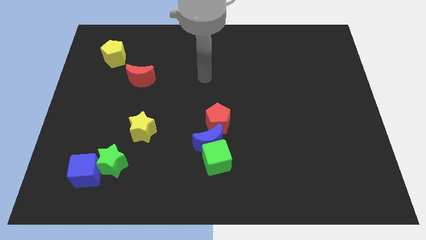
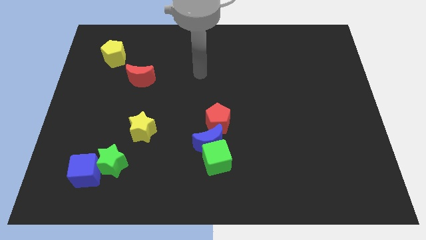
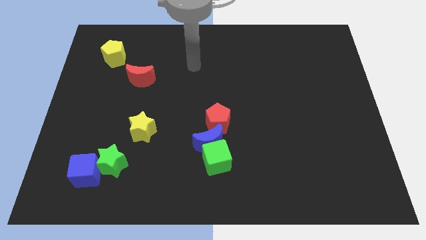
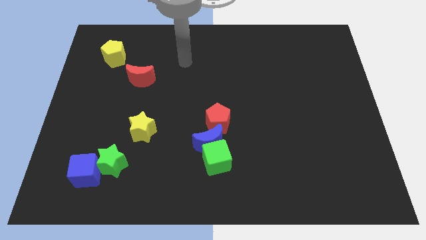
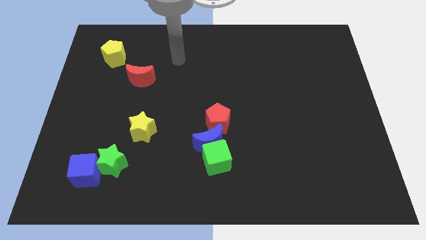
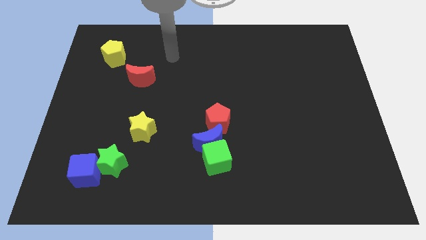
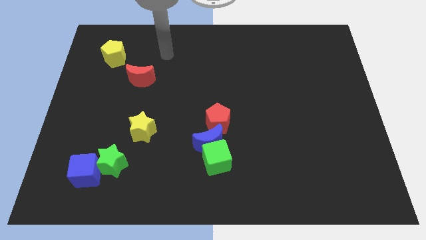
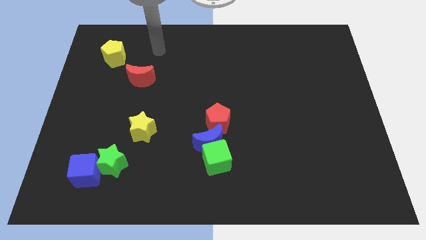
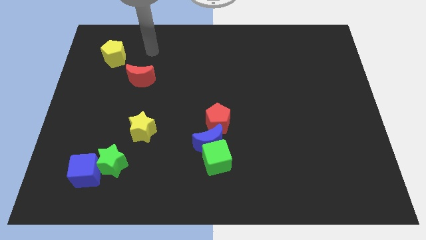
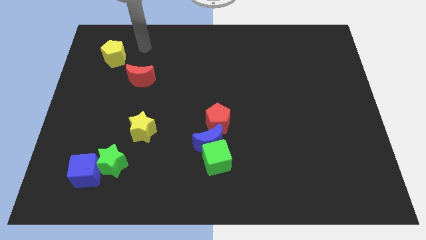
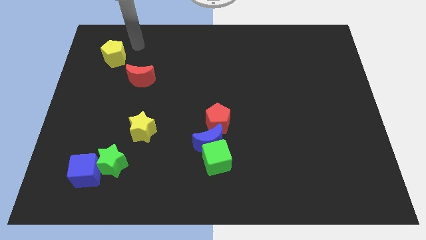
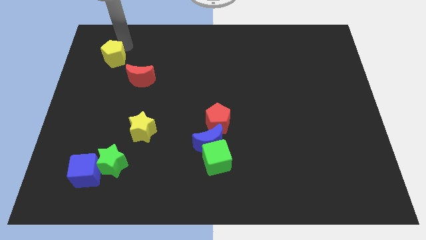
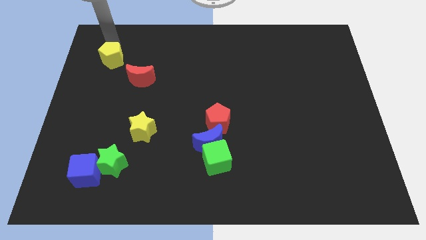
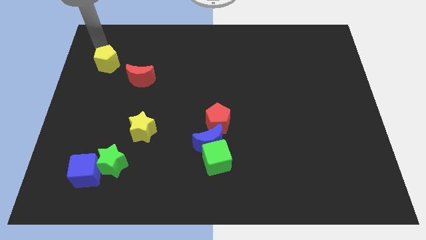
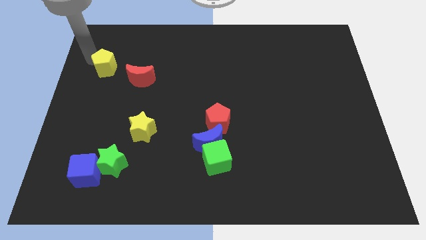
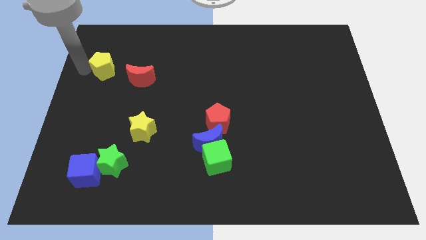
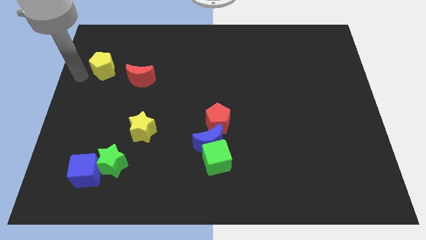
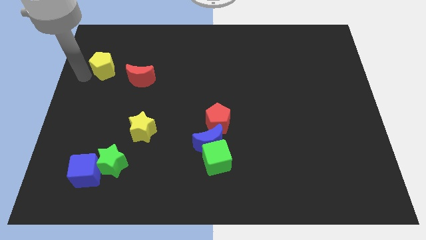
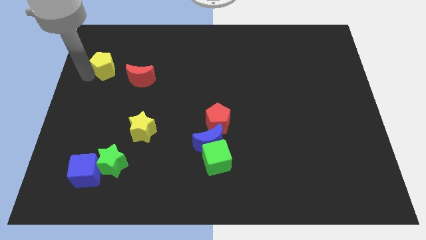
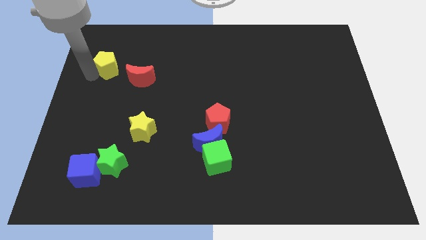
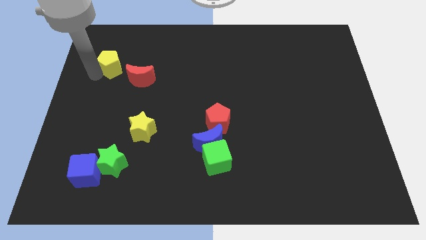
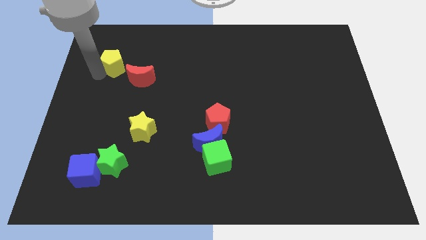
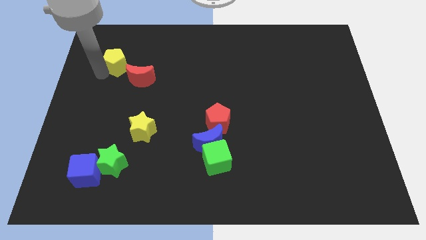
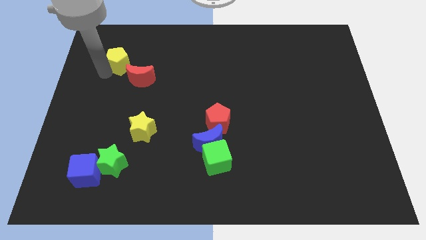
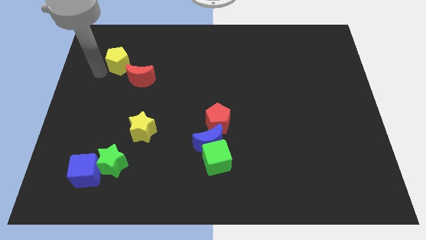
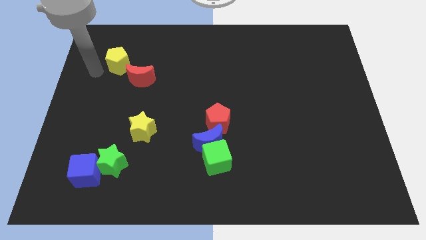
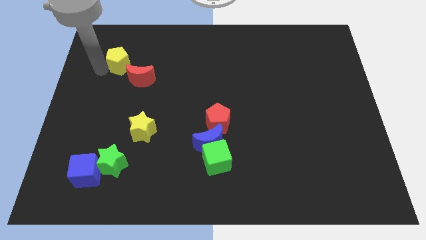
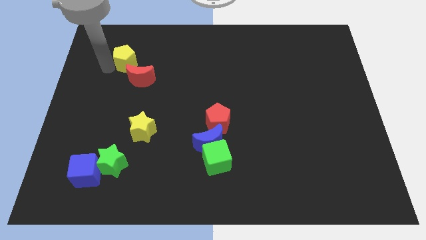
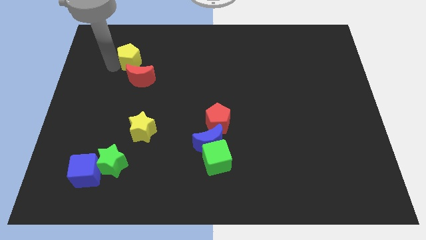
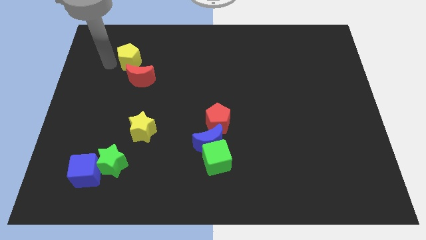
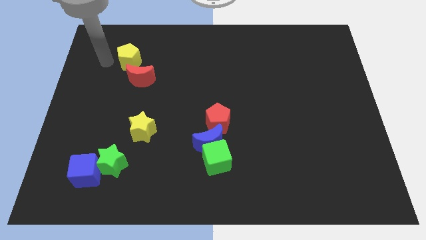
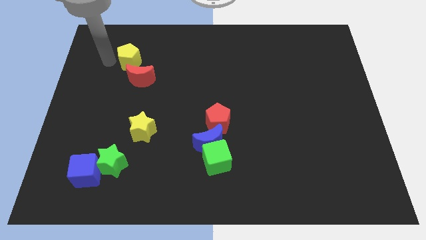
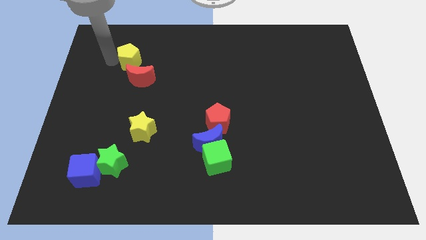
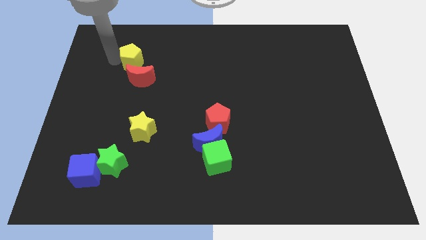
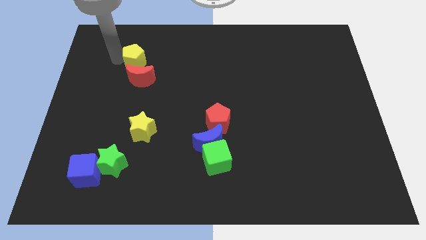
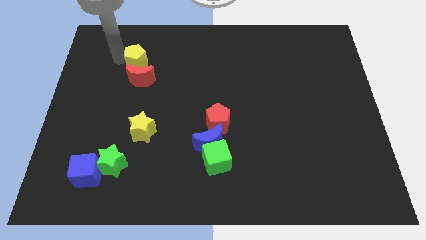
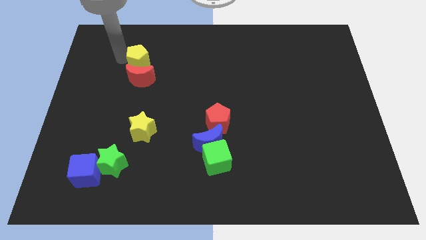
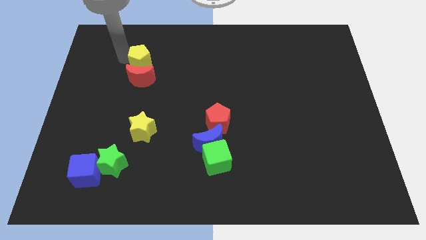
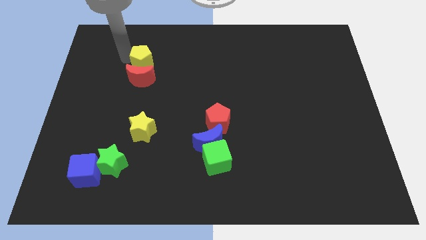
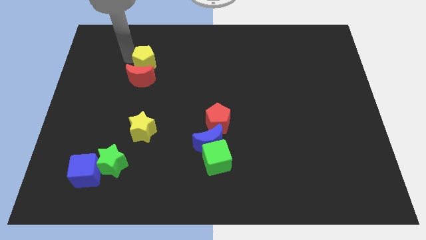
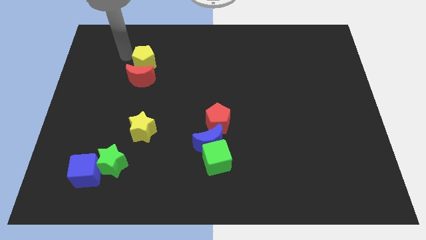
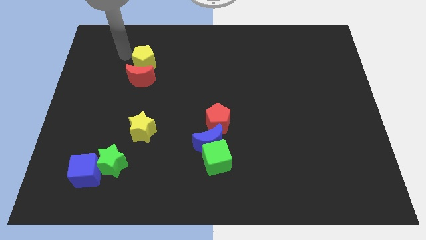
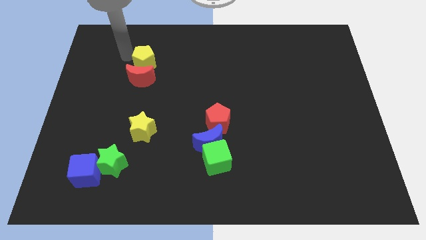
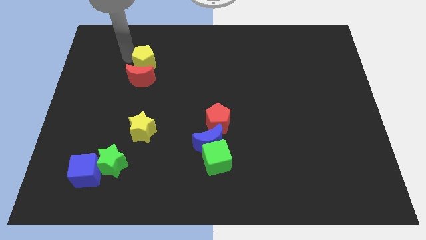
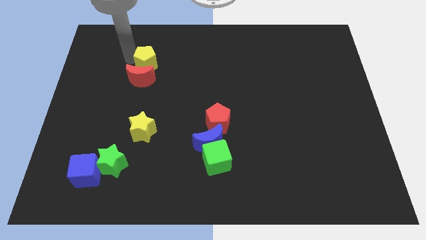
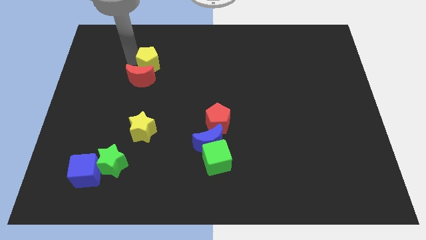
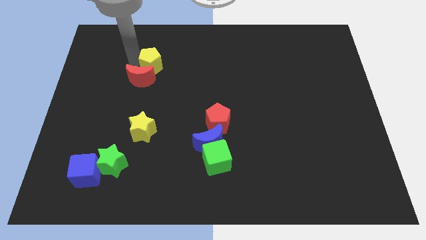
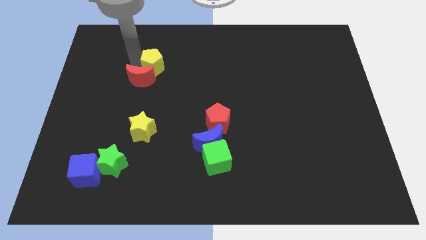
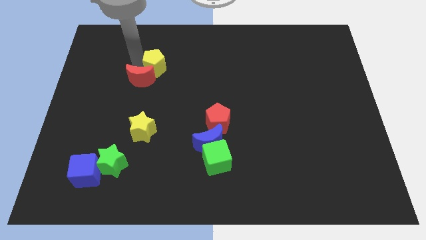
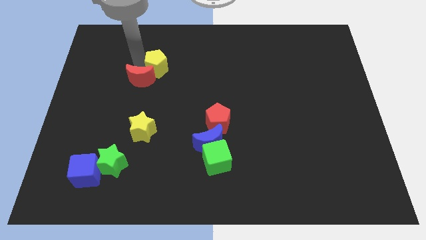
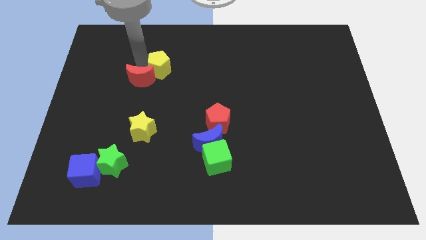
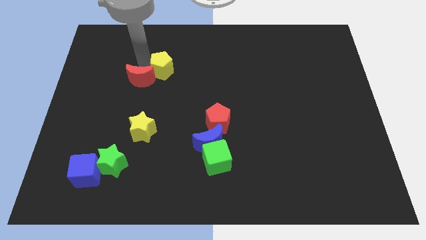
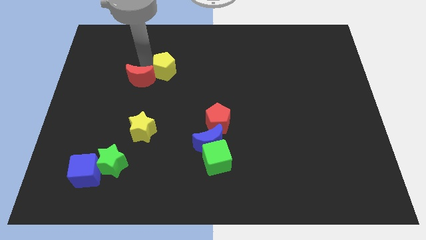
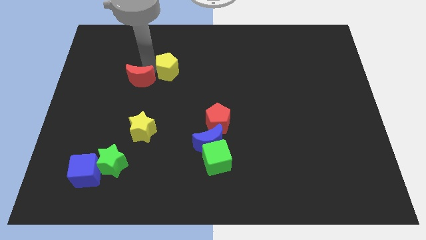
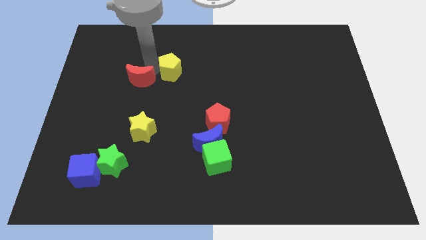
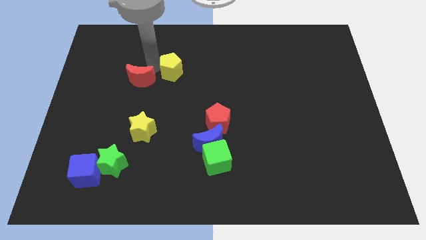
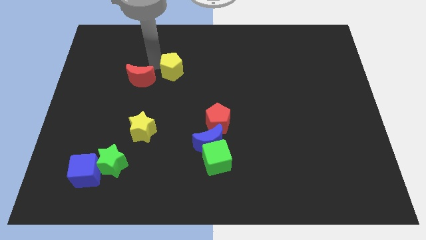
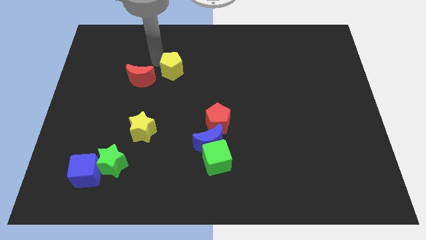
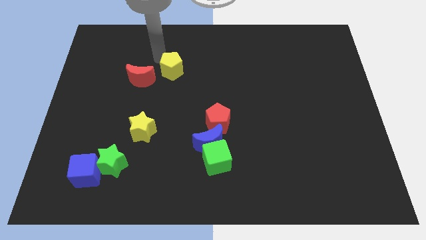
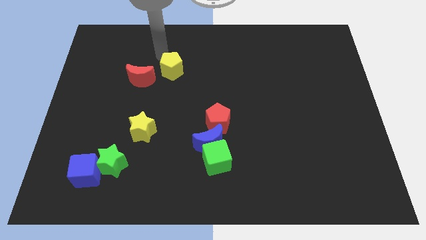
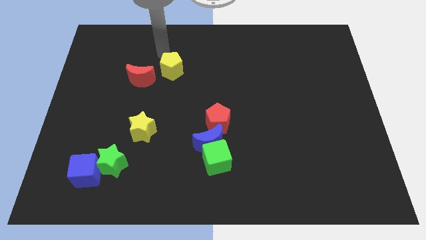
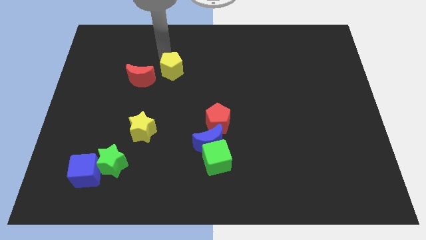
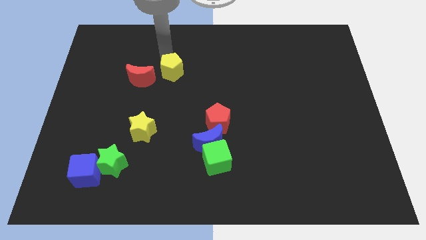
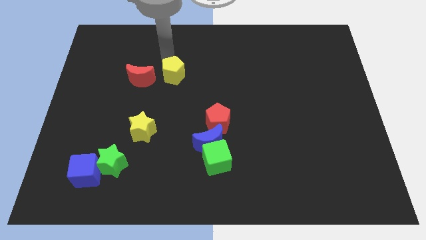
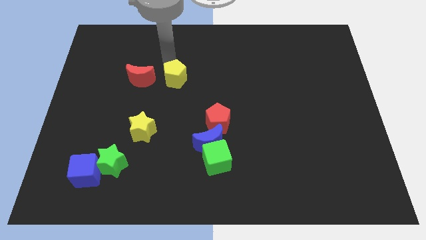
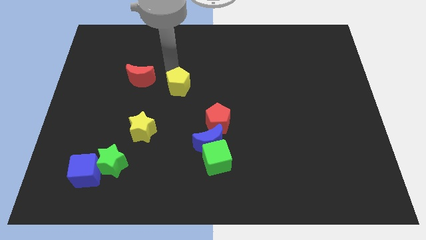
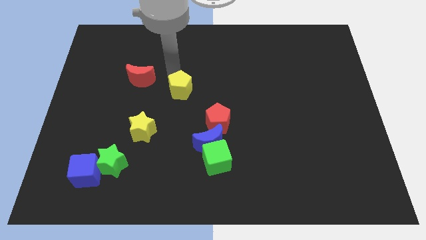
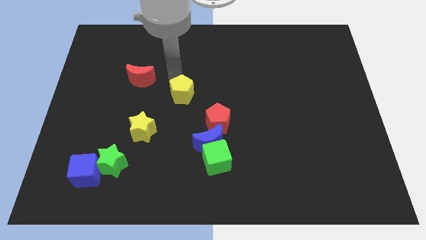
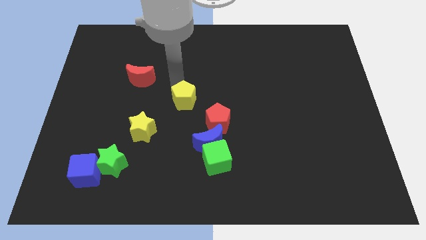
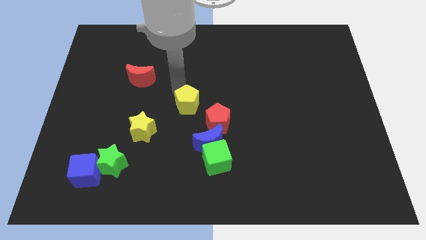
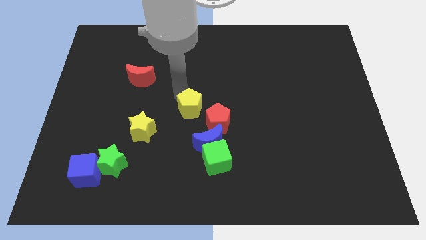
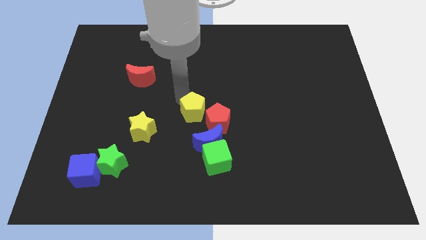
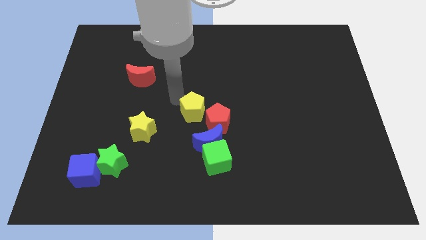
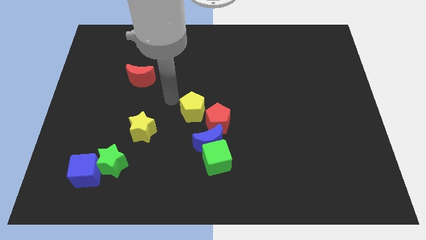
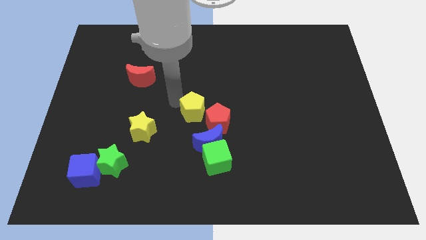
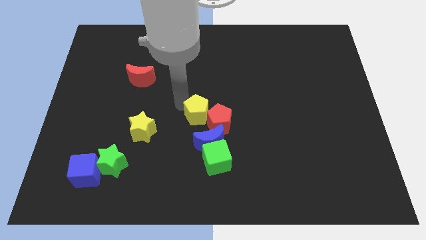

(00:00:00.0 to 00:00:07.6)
push the yellow pentagon close to the red pentagon
